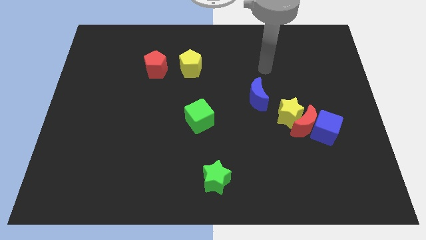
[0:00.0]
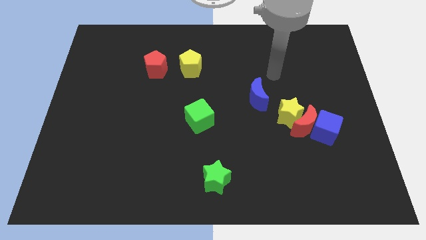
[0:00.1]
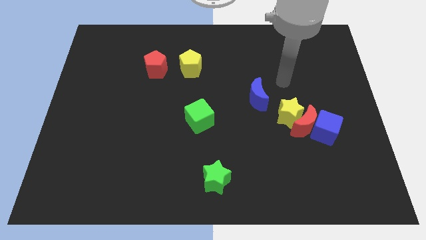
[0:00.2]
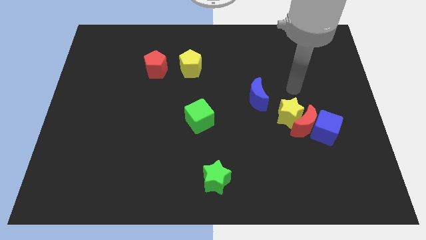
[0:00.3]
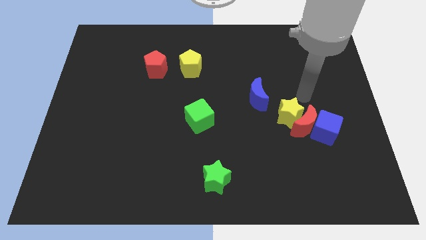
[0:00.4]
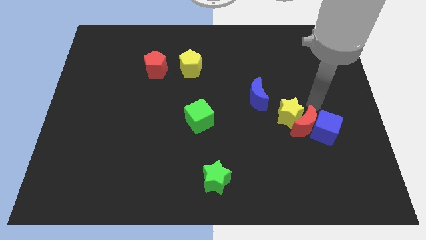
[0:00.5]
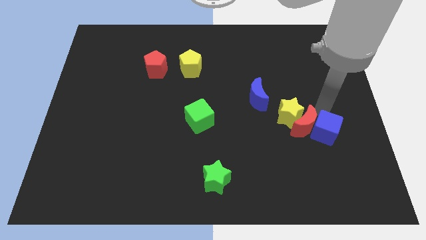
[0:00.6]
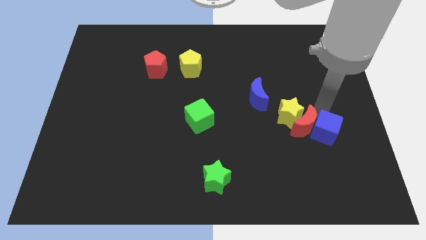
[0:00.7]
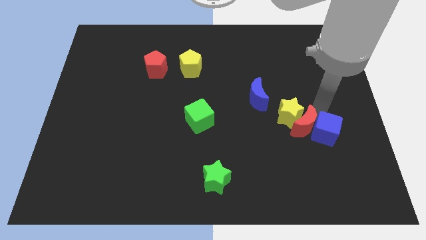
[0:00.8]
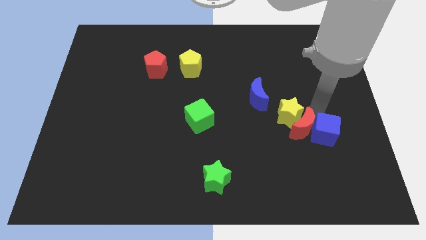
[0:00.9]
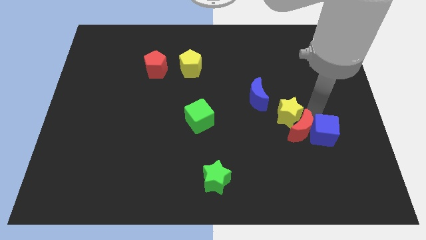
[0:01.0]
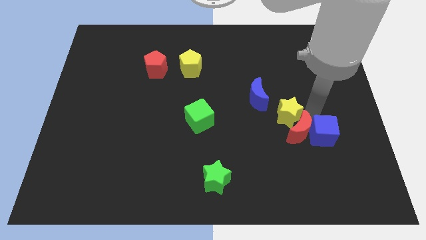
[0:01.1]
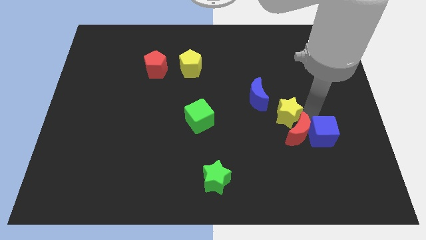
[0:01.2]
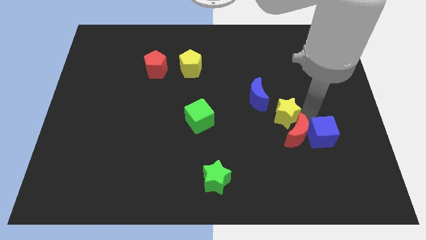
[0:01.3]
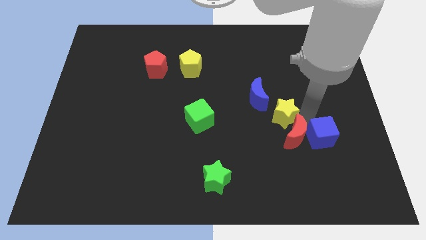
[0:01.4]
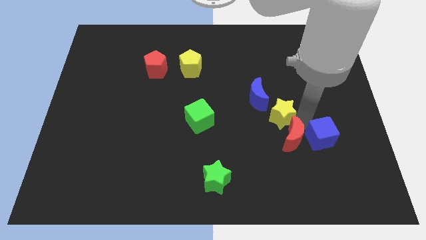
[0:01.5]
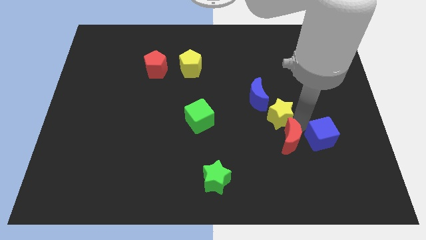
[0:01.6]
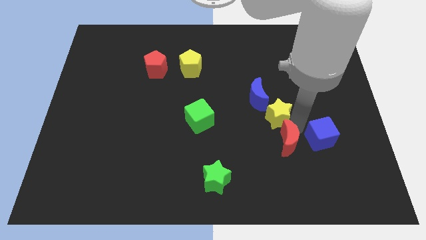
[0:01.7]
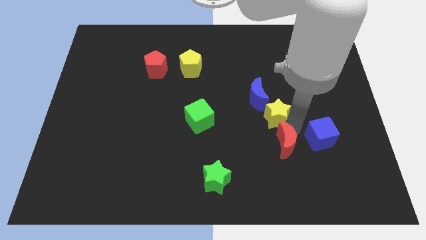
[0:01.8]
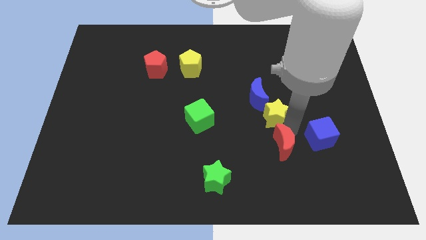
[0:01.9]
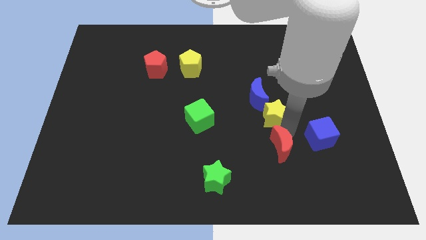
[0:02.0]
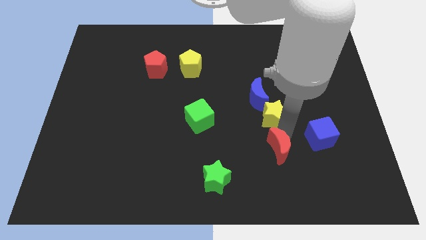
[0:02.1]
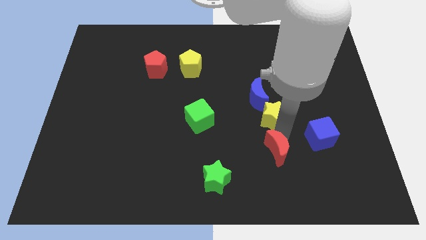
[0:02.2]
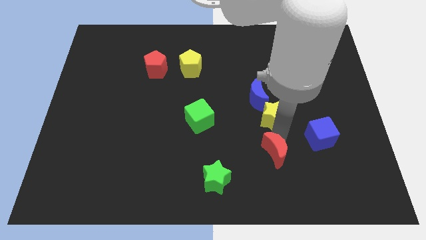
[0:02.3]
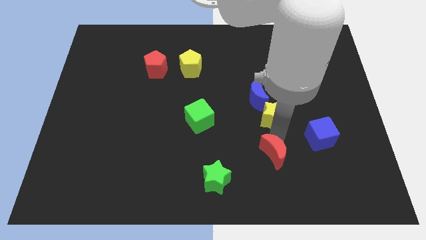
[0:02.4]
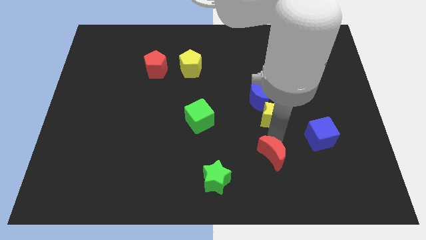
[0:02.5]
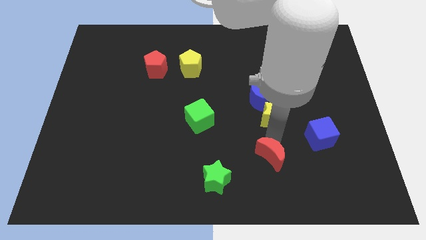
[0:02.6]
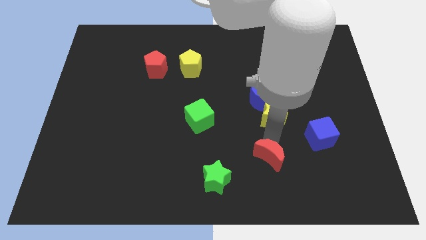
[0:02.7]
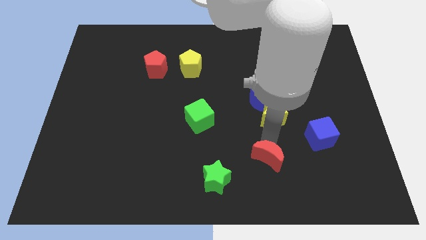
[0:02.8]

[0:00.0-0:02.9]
move the red moon away from the yellow star and blue cube

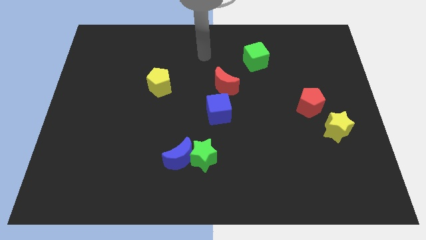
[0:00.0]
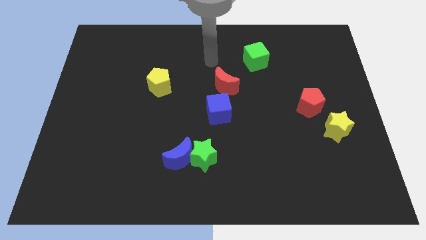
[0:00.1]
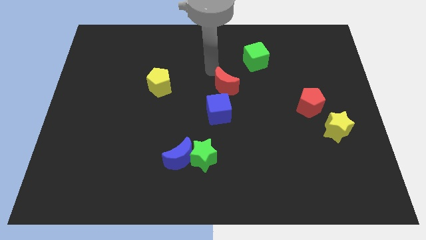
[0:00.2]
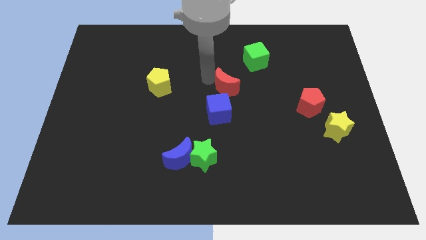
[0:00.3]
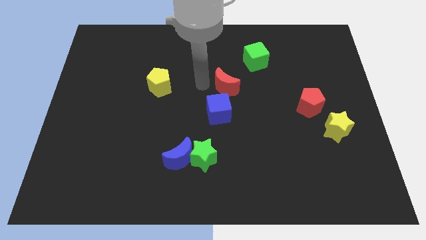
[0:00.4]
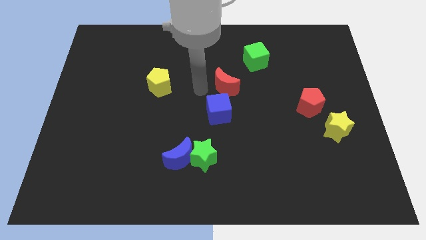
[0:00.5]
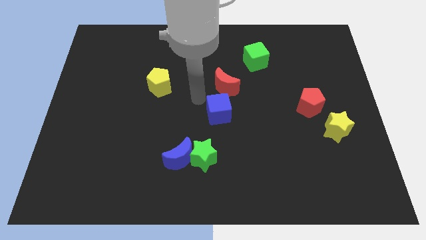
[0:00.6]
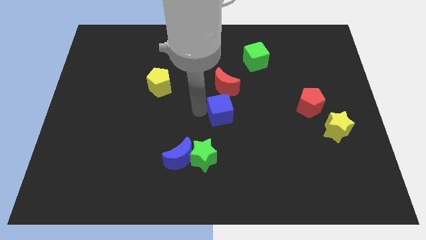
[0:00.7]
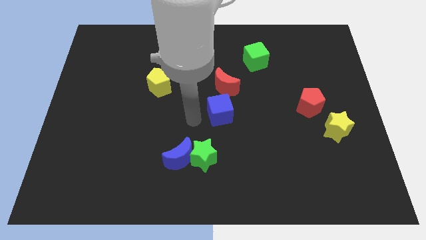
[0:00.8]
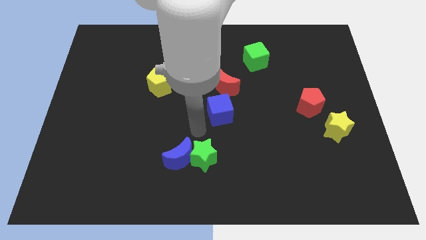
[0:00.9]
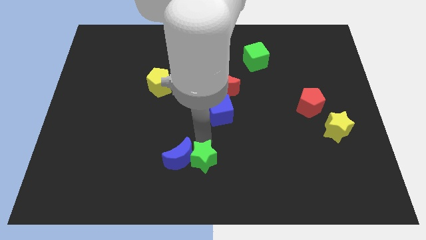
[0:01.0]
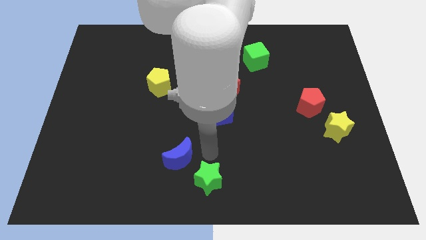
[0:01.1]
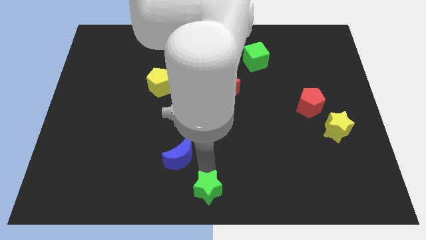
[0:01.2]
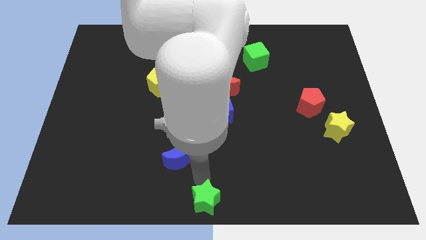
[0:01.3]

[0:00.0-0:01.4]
pull the blue moon apart from the green star

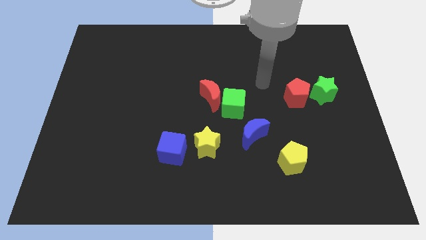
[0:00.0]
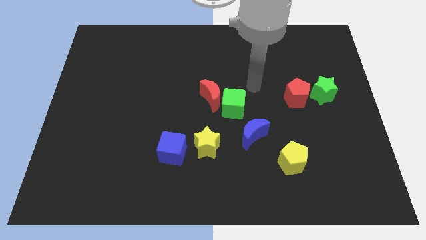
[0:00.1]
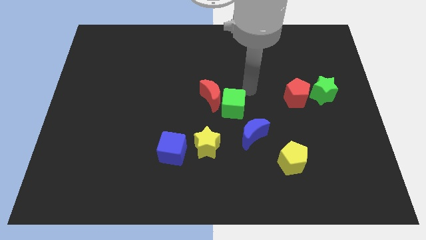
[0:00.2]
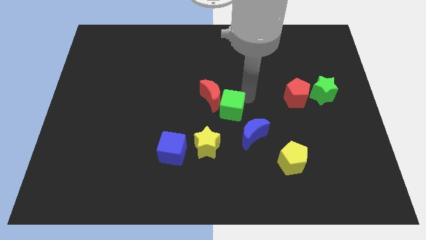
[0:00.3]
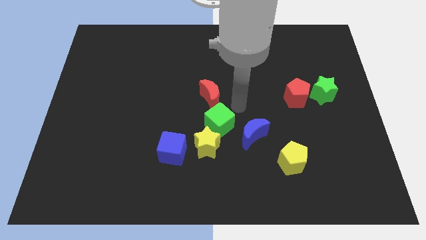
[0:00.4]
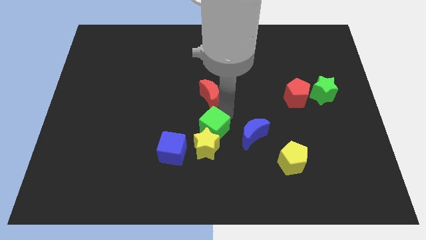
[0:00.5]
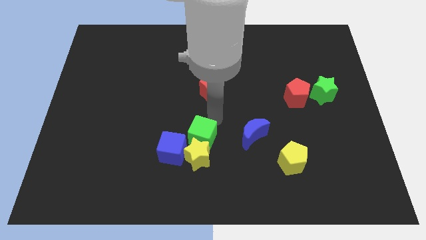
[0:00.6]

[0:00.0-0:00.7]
pull the red moon apart from the green cube

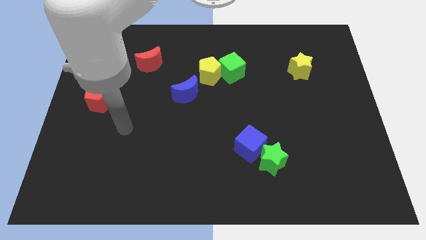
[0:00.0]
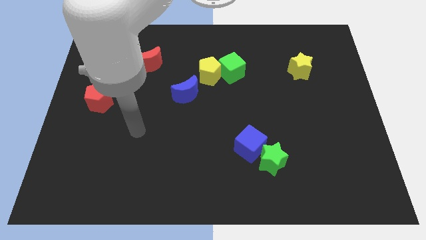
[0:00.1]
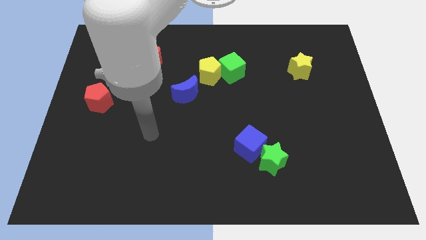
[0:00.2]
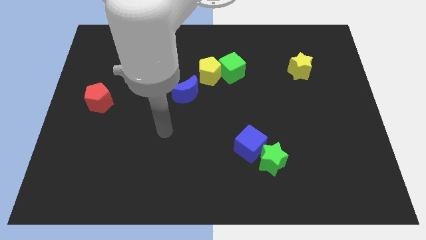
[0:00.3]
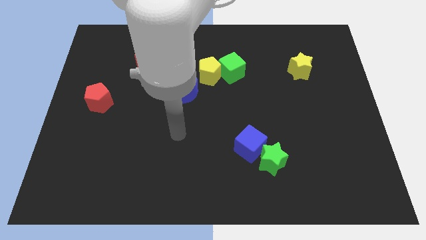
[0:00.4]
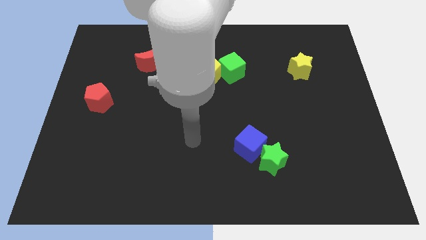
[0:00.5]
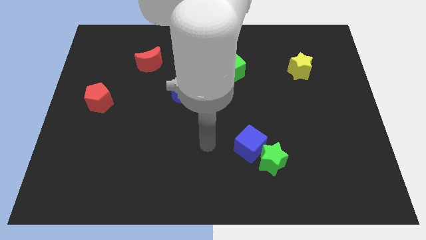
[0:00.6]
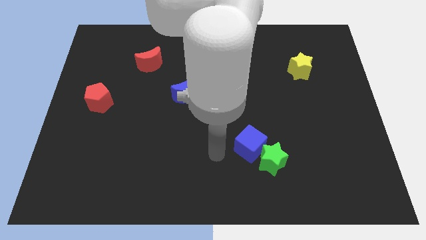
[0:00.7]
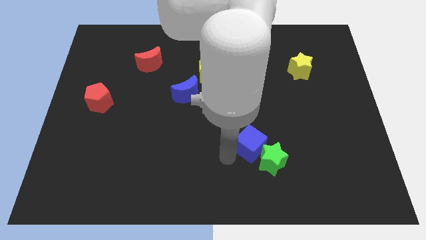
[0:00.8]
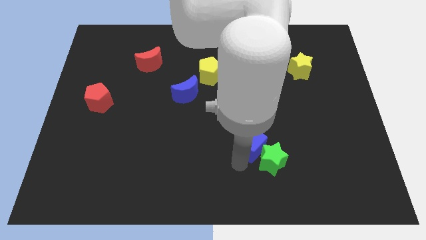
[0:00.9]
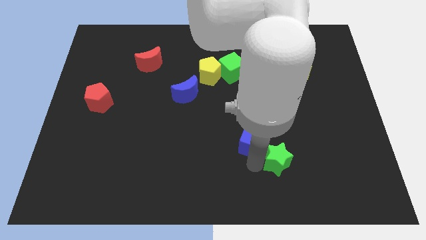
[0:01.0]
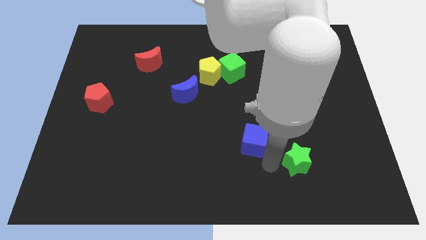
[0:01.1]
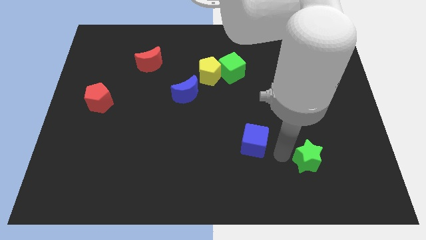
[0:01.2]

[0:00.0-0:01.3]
move the blue cube away from the green star

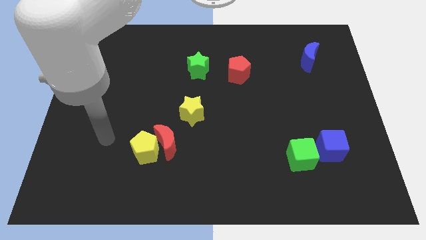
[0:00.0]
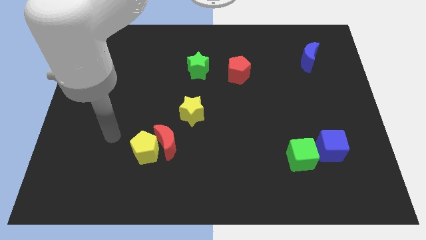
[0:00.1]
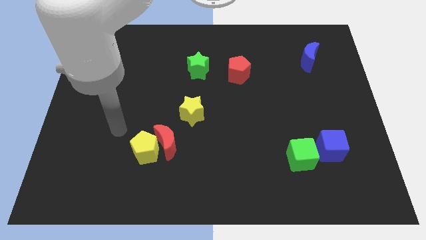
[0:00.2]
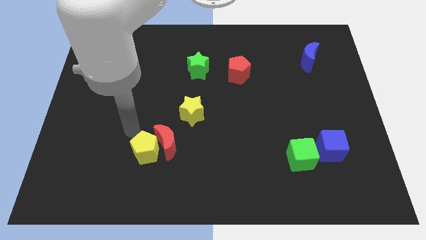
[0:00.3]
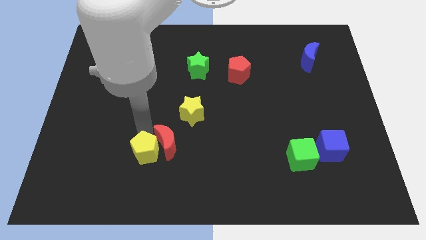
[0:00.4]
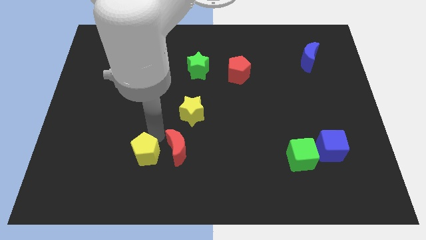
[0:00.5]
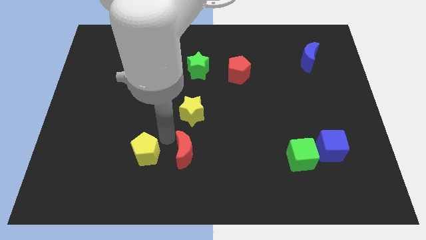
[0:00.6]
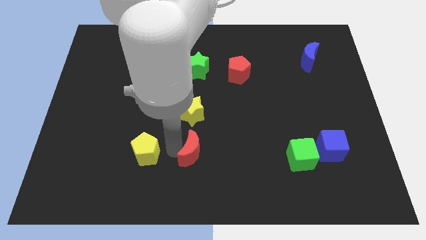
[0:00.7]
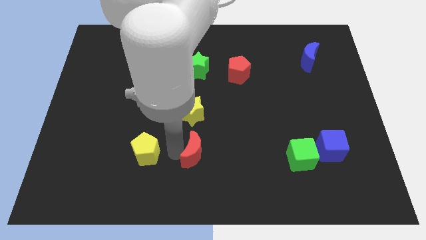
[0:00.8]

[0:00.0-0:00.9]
move the yellow pentagon away from the red moon

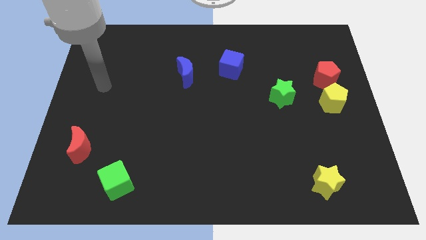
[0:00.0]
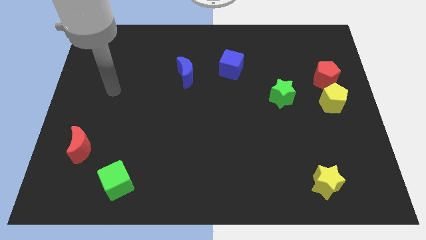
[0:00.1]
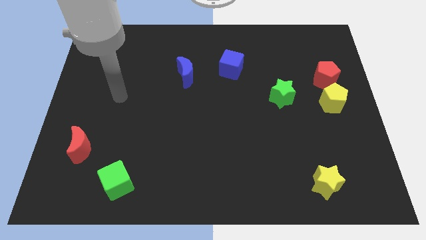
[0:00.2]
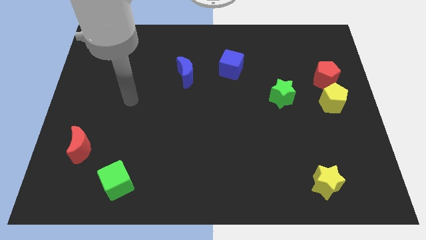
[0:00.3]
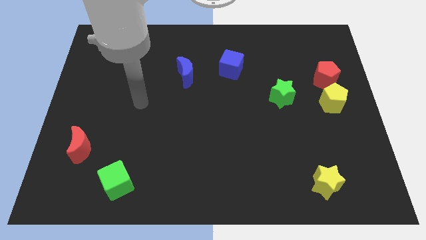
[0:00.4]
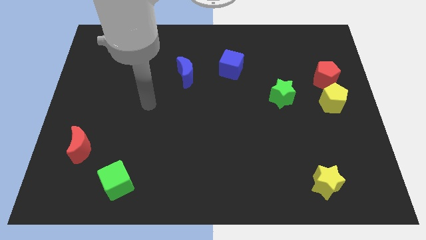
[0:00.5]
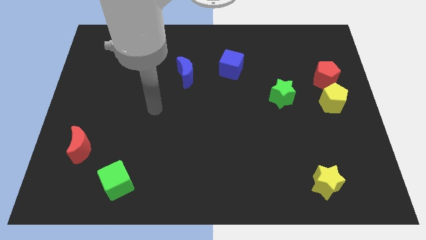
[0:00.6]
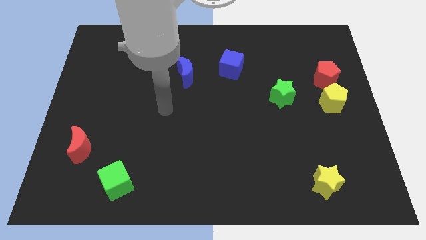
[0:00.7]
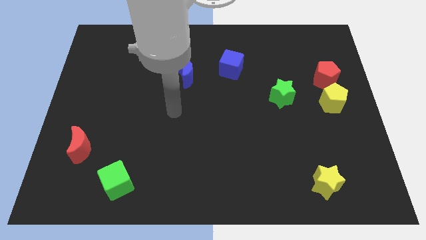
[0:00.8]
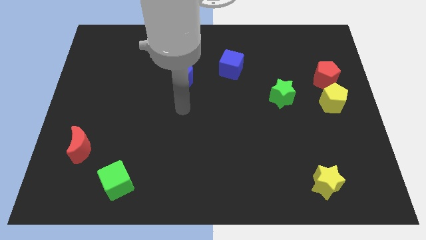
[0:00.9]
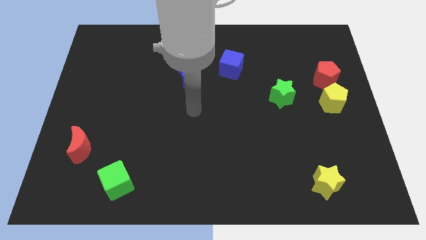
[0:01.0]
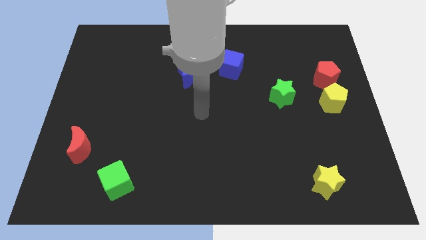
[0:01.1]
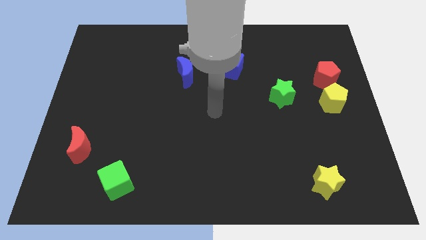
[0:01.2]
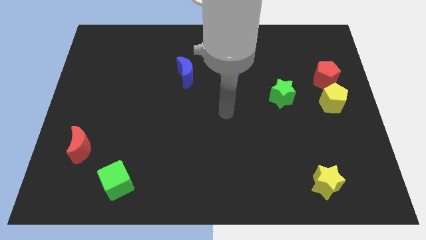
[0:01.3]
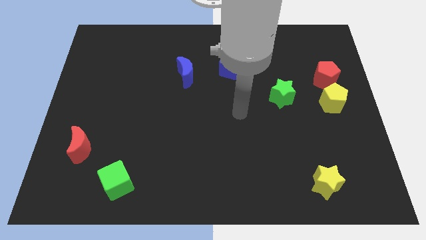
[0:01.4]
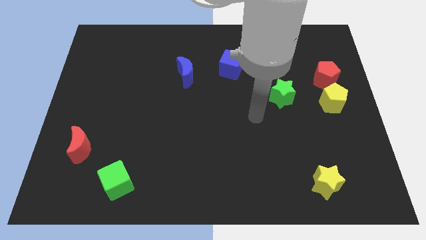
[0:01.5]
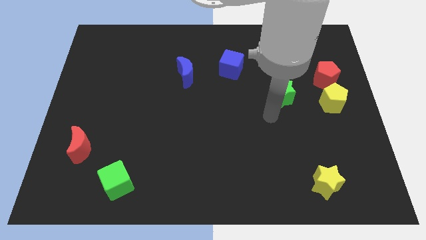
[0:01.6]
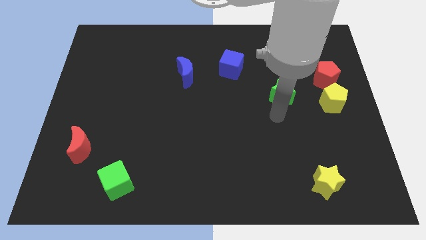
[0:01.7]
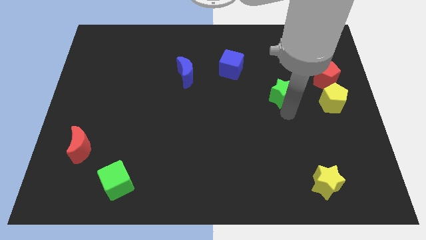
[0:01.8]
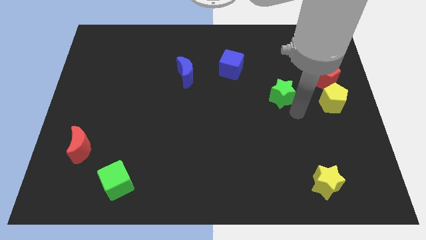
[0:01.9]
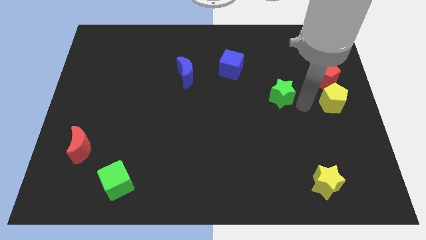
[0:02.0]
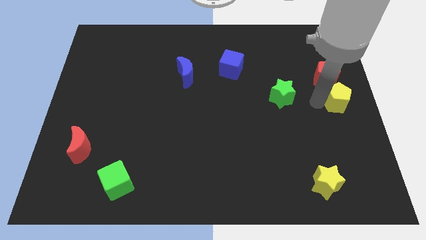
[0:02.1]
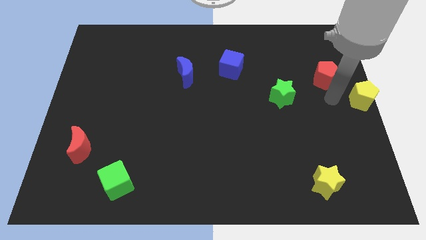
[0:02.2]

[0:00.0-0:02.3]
separate the red pentagon from the yellow pentagon
